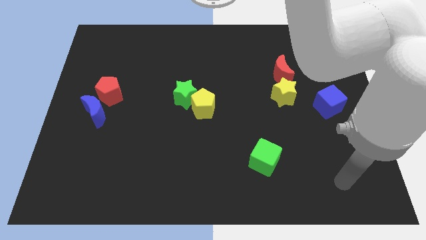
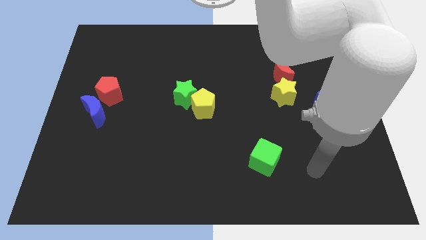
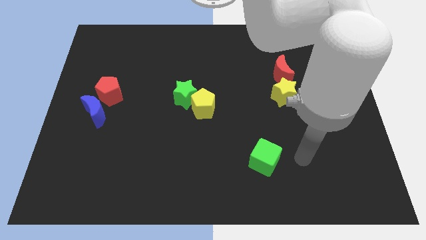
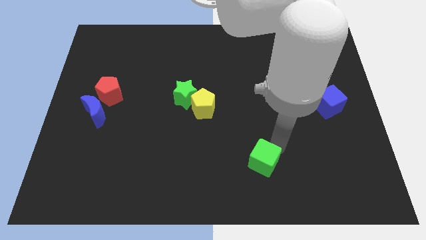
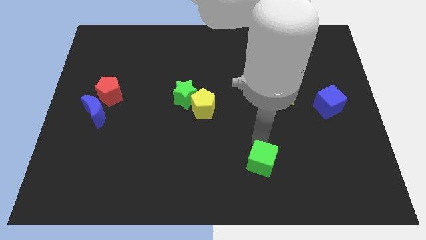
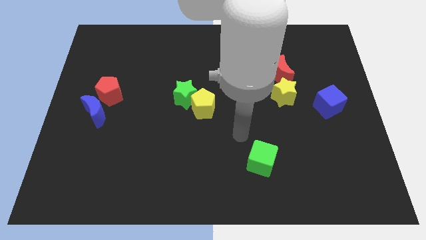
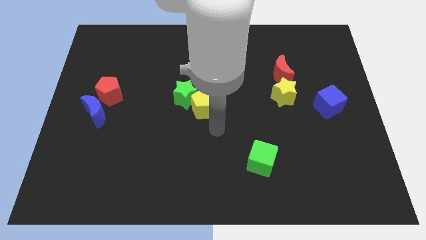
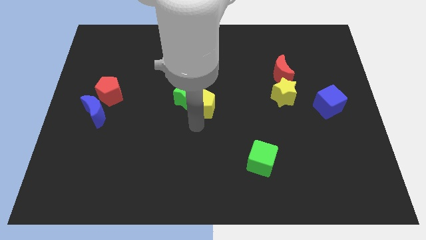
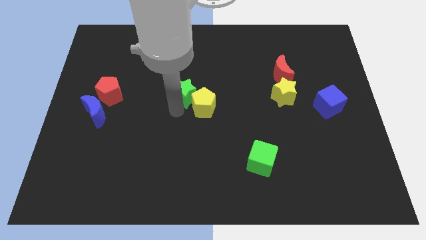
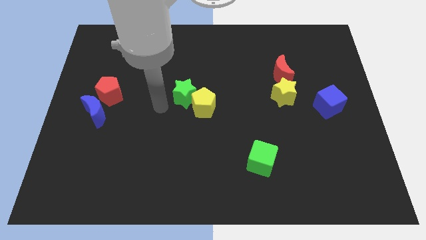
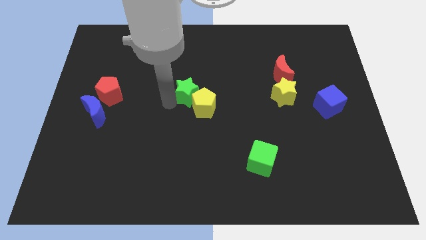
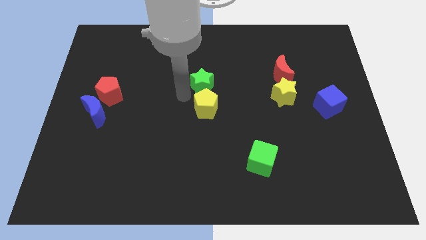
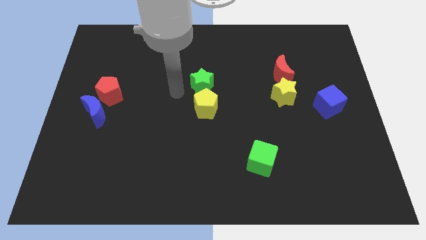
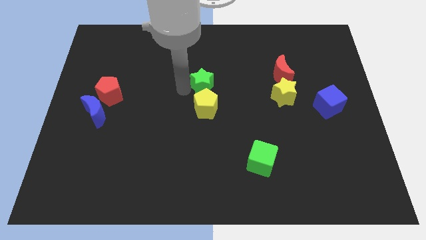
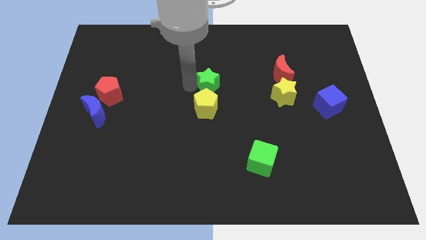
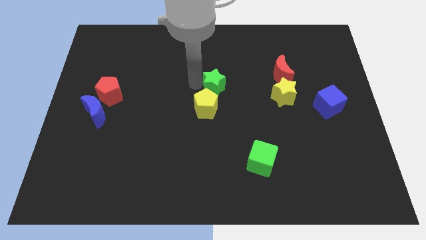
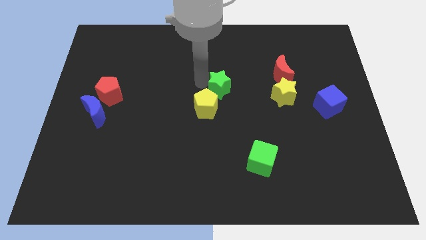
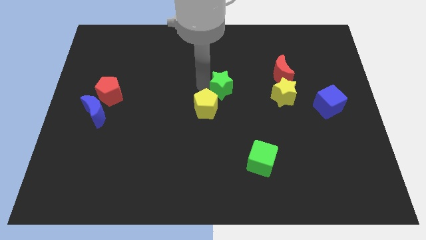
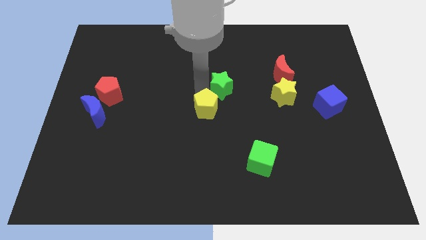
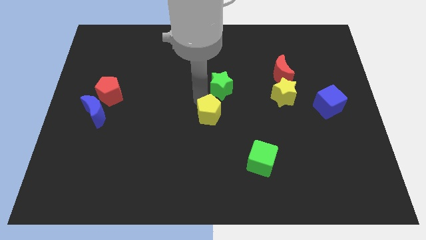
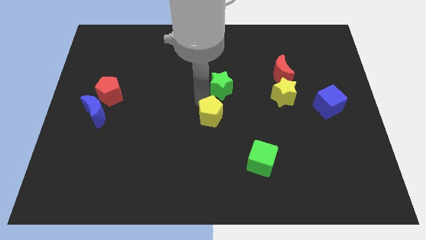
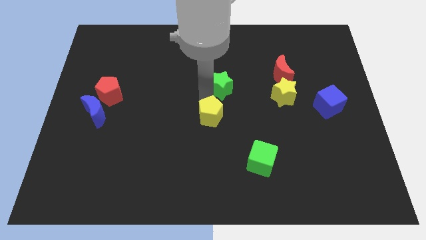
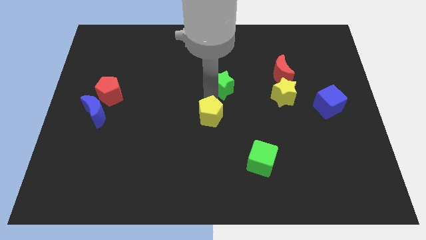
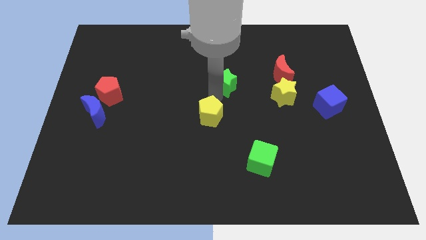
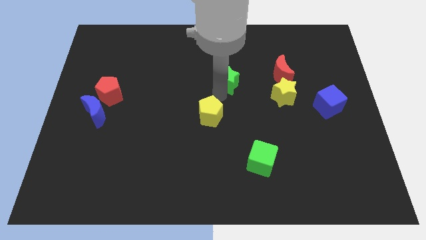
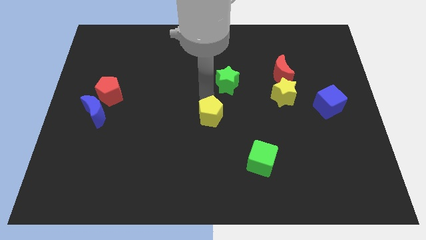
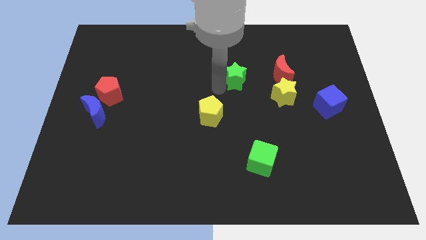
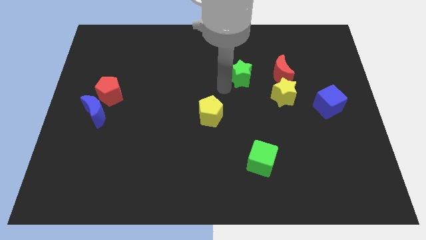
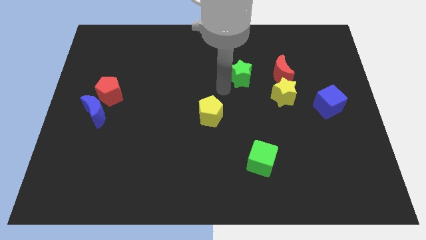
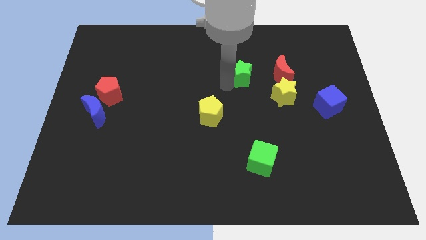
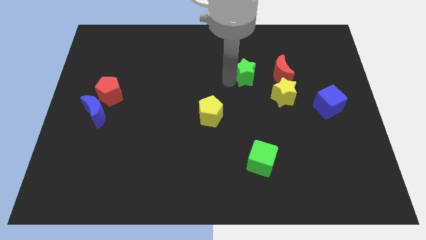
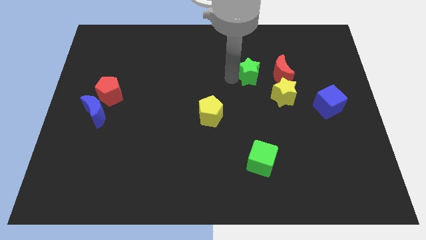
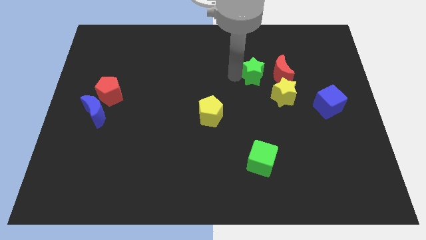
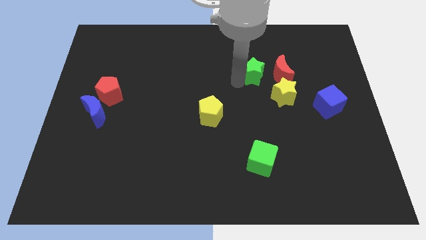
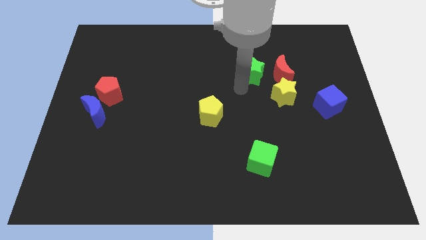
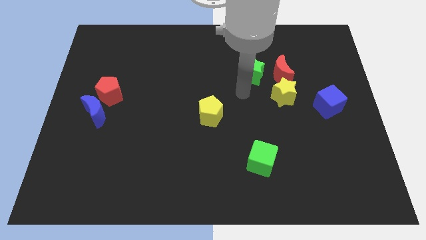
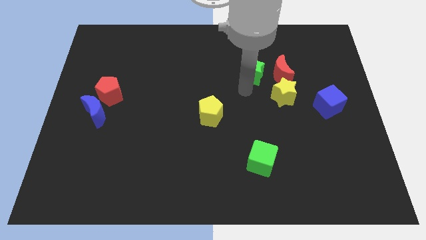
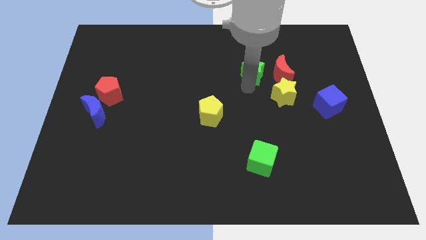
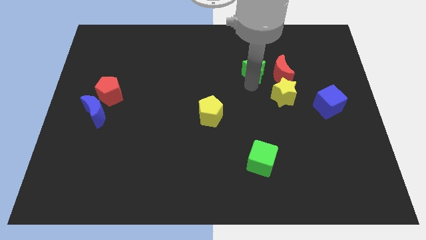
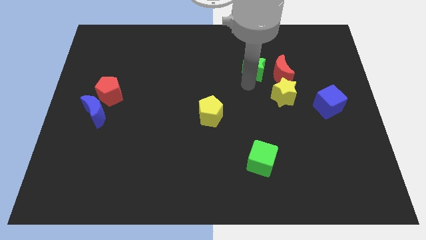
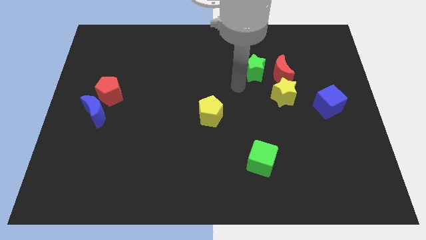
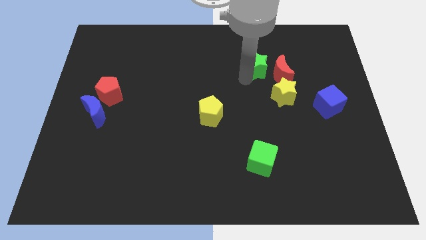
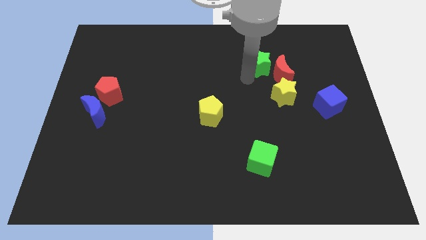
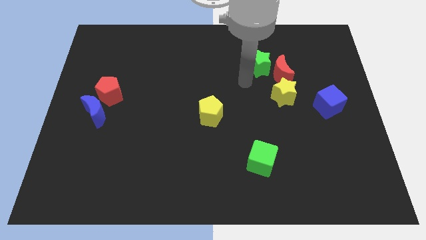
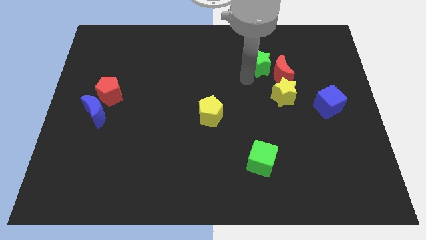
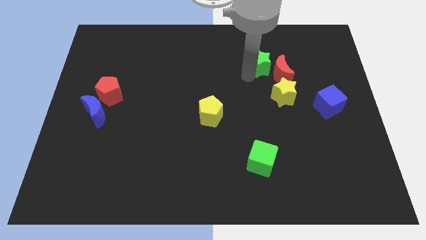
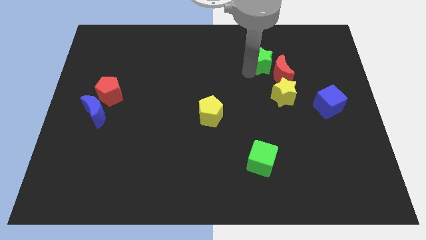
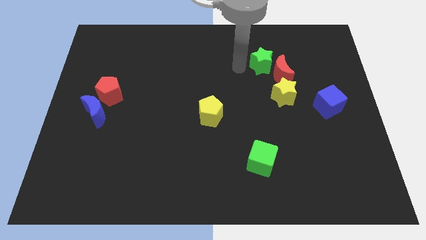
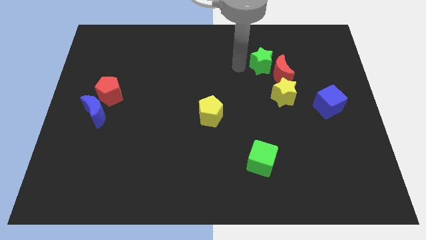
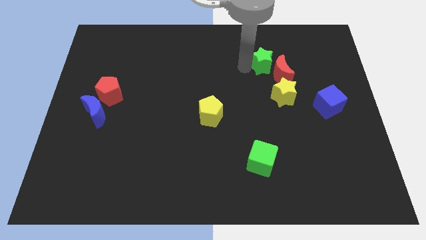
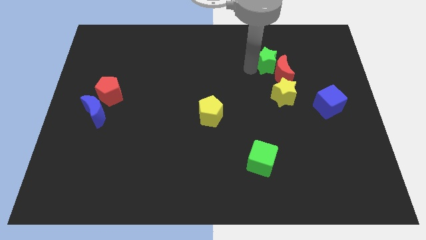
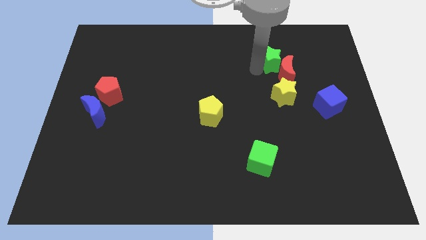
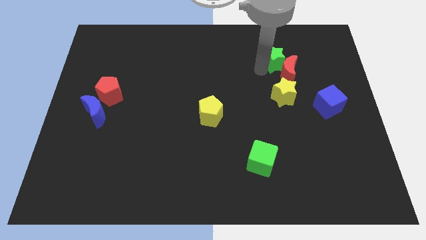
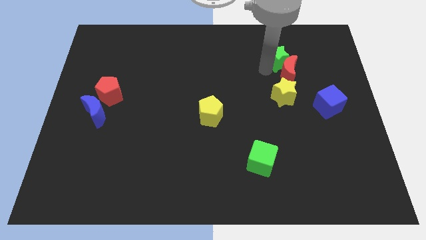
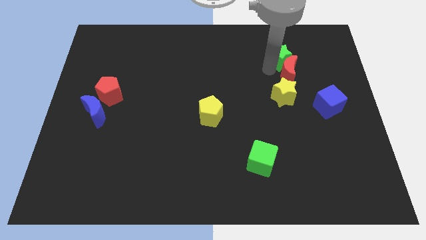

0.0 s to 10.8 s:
put the green star to the top right of the red moon

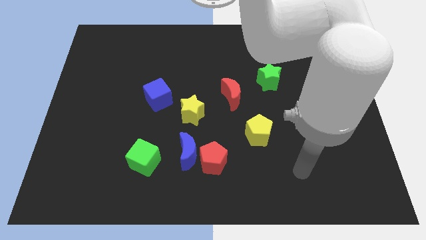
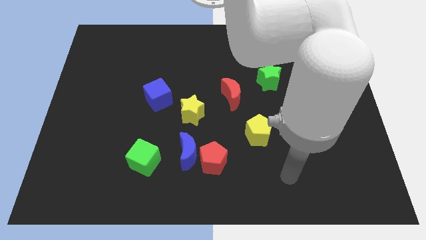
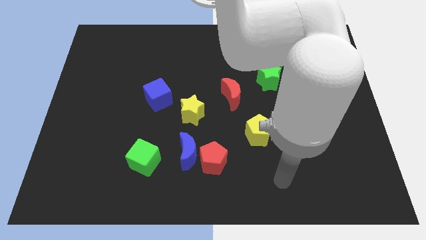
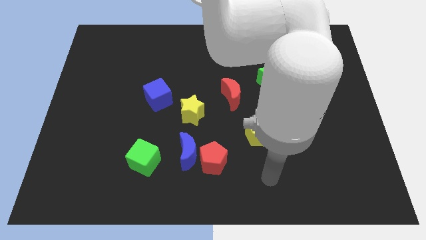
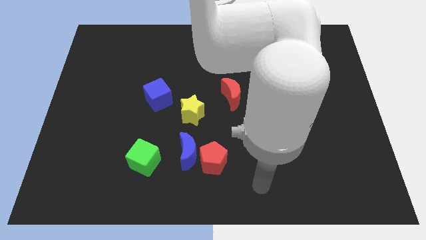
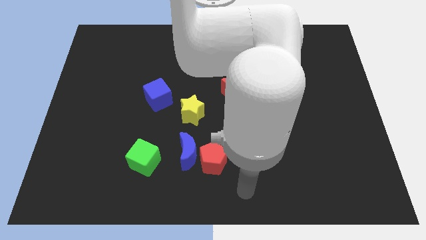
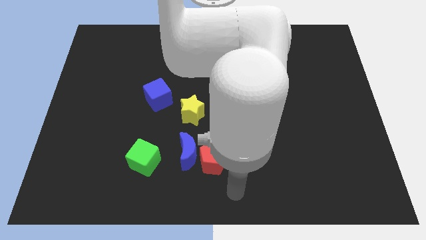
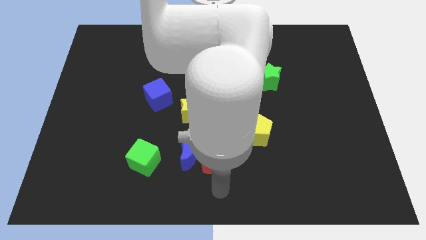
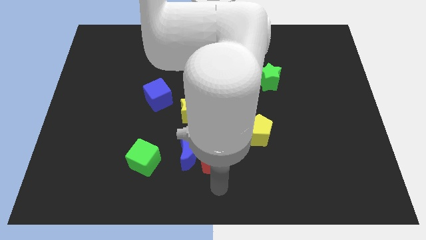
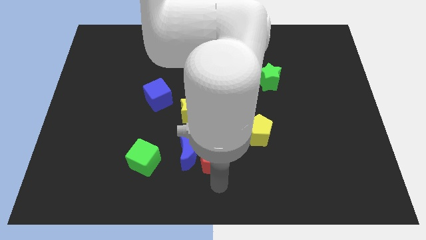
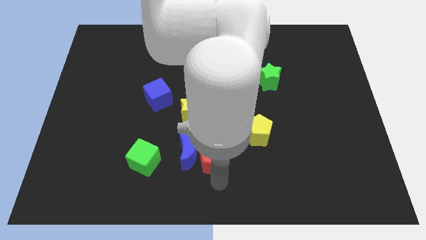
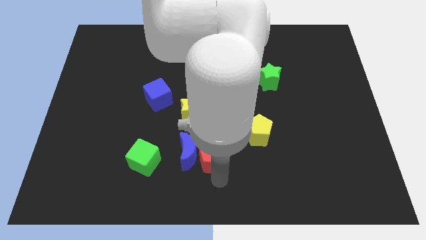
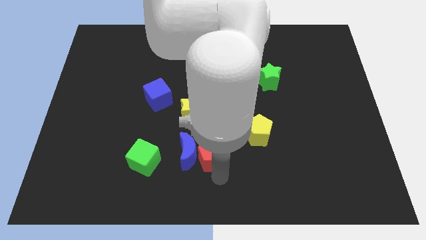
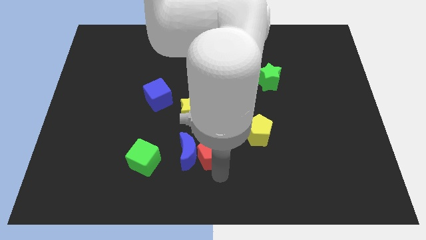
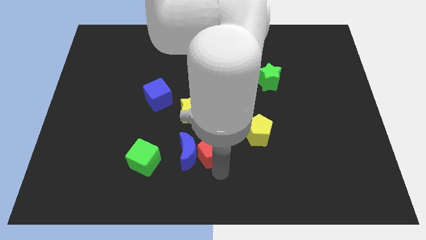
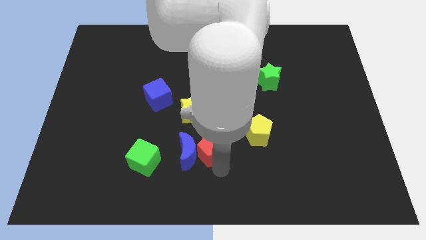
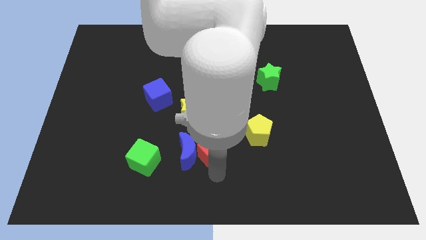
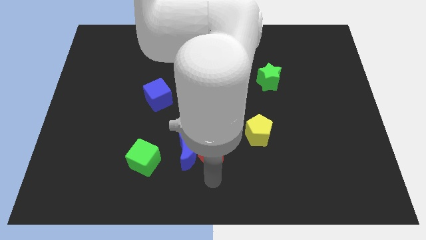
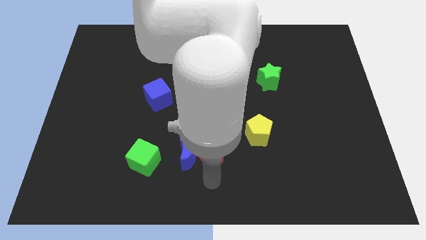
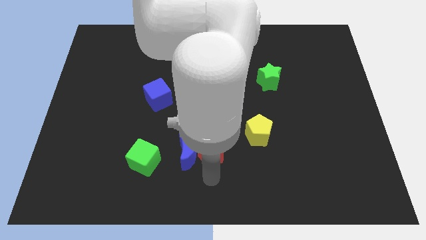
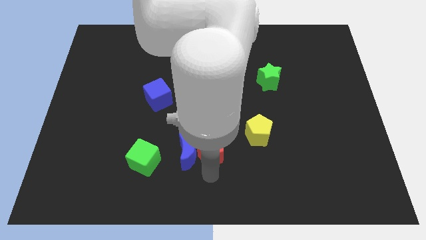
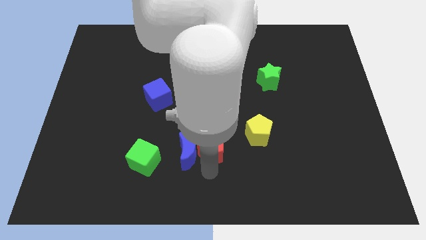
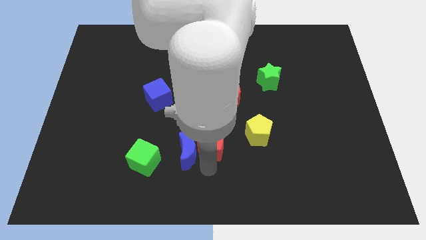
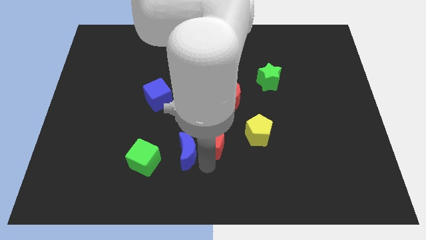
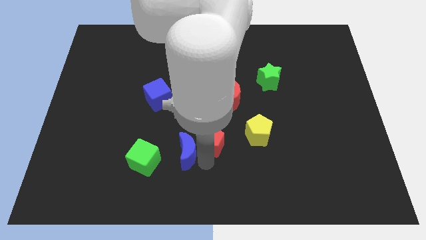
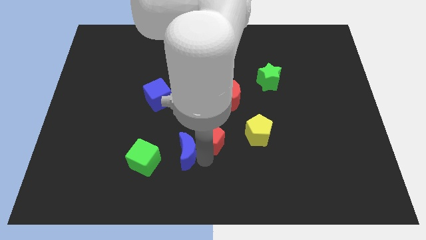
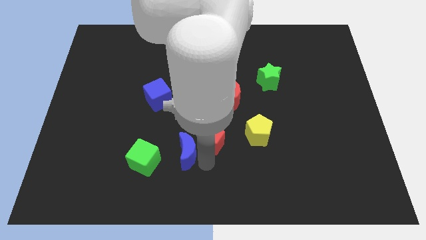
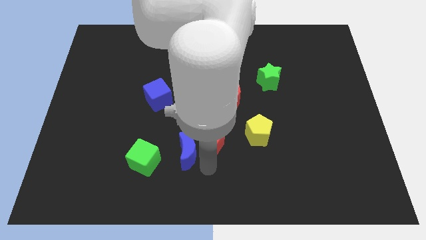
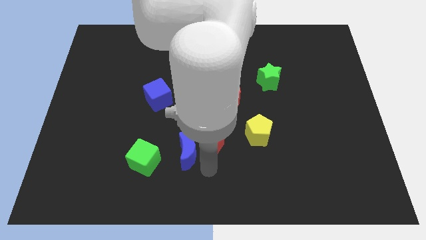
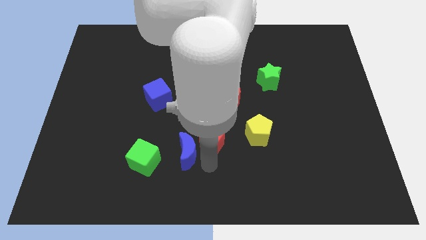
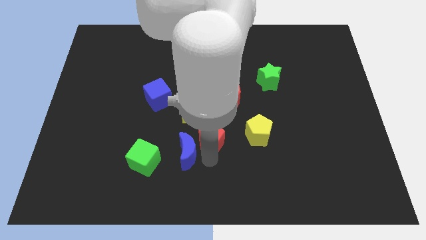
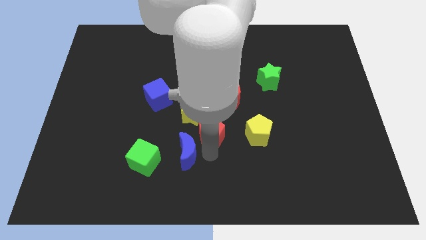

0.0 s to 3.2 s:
push the red pentagon to the top side of the blue moon
